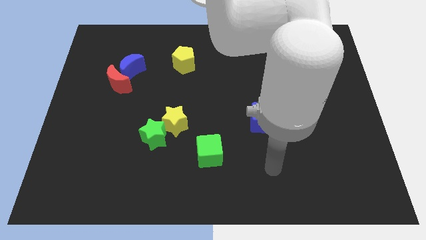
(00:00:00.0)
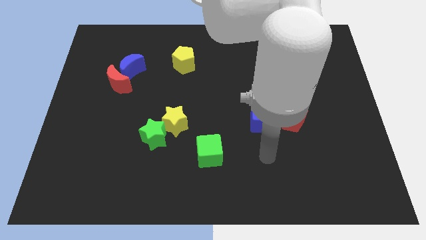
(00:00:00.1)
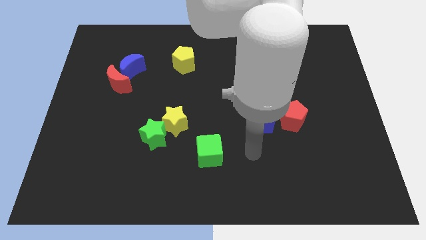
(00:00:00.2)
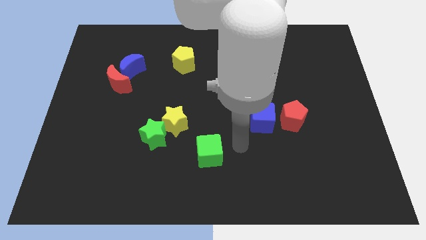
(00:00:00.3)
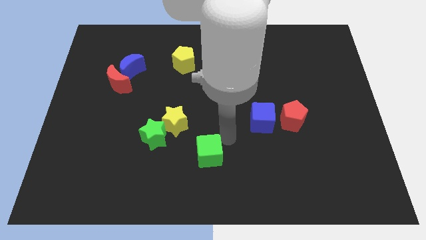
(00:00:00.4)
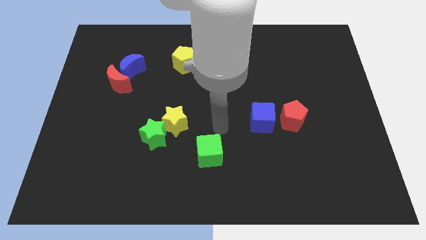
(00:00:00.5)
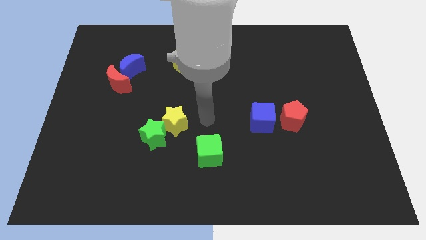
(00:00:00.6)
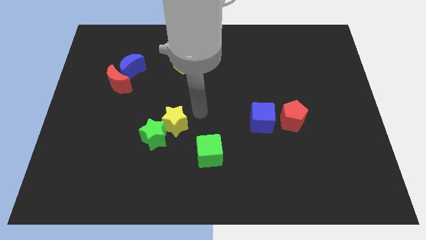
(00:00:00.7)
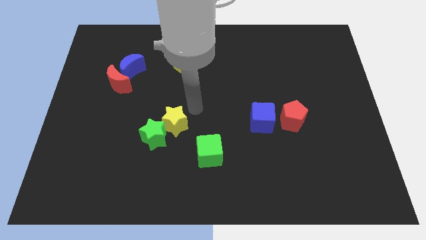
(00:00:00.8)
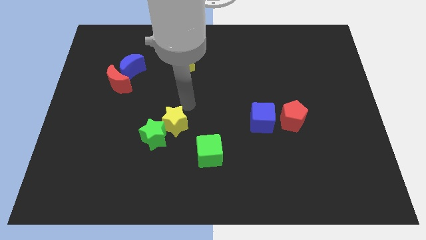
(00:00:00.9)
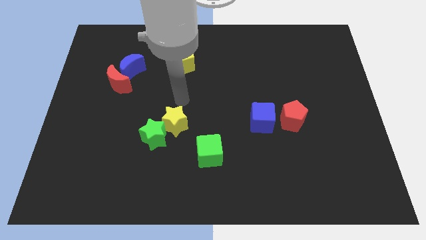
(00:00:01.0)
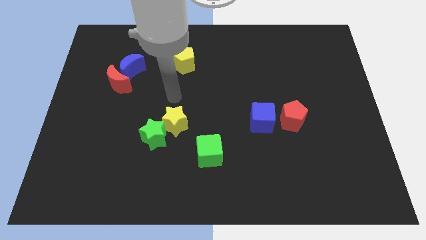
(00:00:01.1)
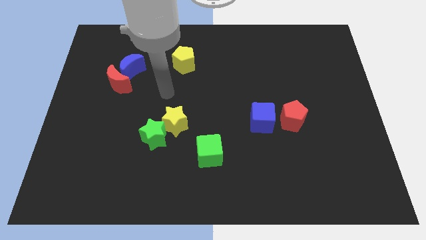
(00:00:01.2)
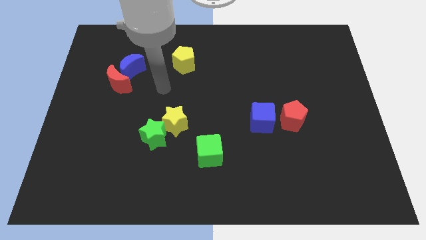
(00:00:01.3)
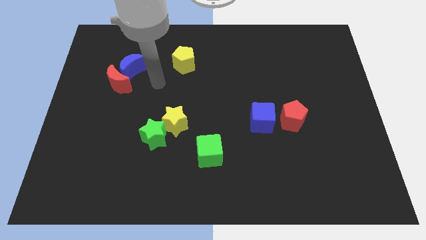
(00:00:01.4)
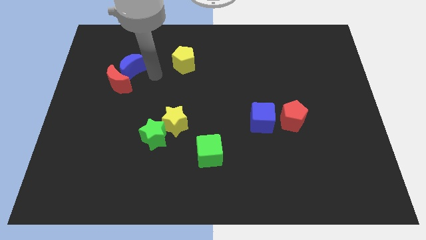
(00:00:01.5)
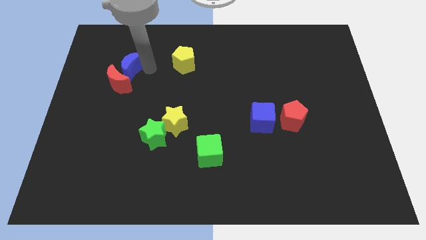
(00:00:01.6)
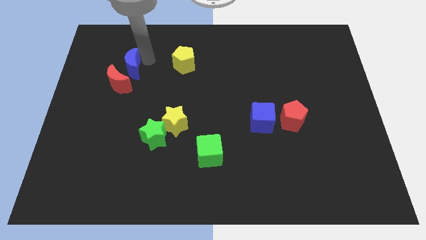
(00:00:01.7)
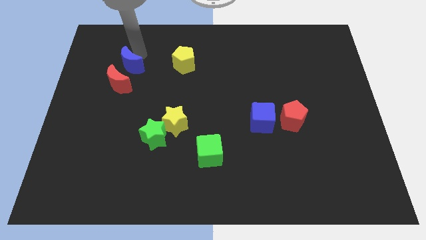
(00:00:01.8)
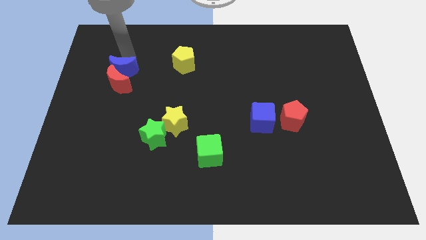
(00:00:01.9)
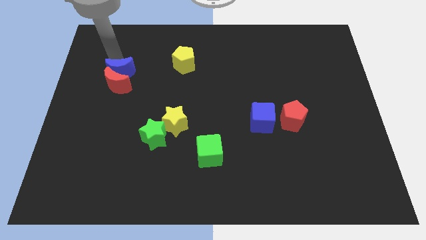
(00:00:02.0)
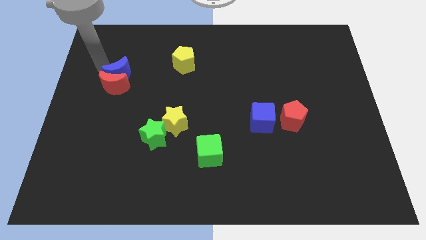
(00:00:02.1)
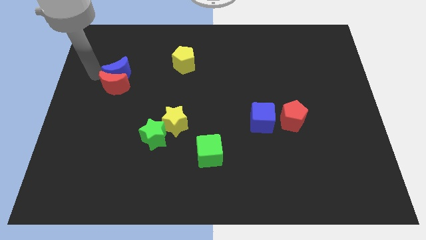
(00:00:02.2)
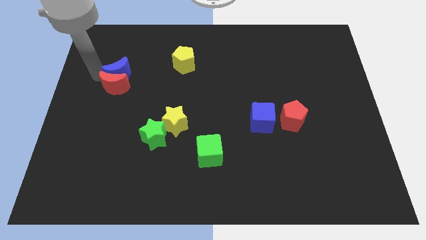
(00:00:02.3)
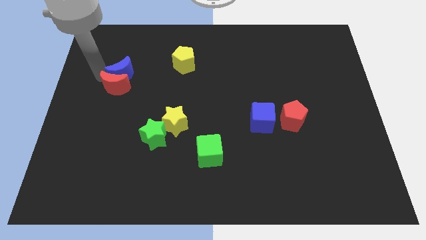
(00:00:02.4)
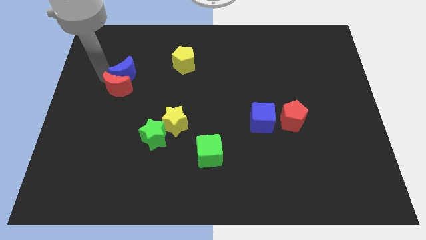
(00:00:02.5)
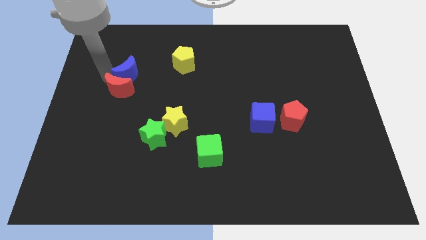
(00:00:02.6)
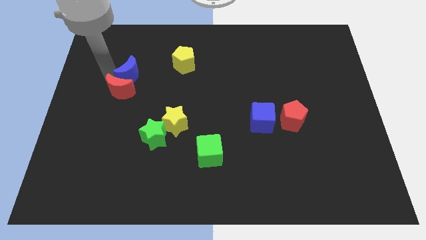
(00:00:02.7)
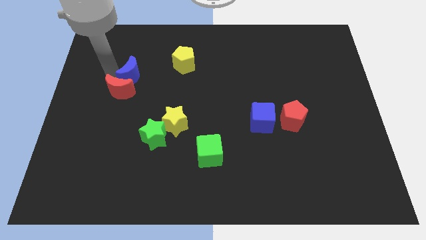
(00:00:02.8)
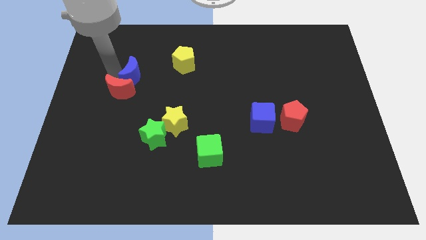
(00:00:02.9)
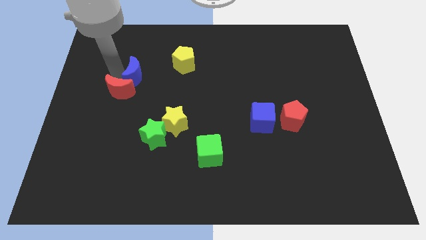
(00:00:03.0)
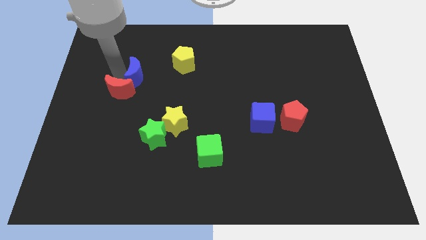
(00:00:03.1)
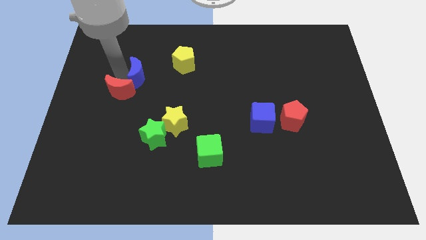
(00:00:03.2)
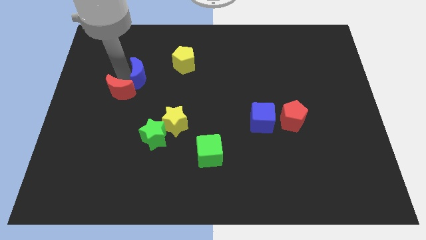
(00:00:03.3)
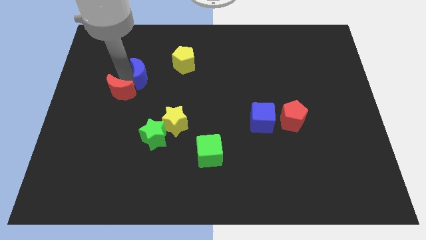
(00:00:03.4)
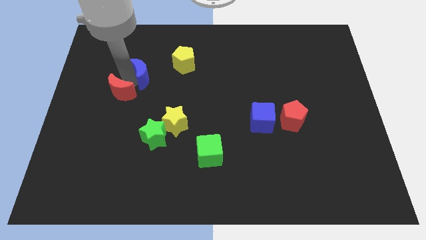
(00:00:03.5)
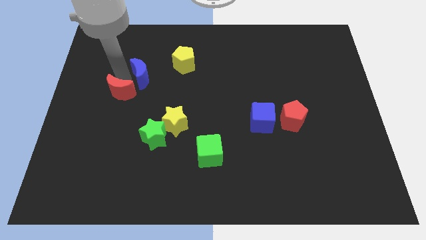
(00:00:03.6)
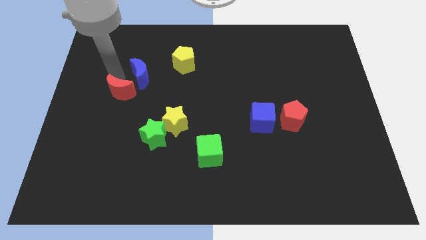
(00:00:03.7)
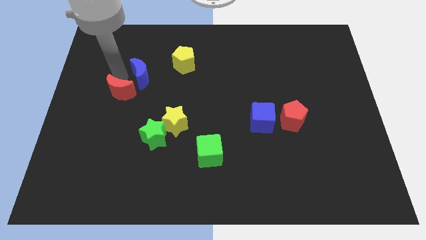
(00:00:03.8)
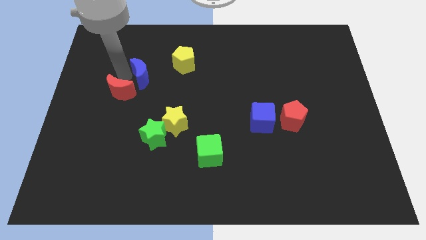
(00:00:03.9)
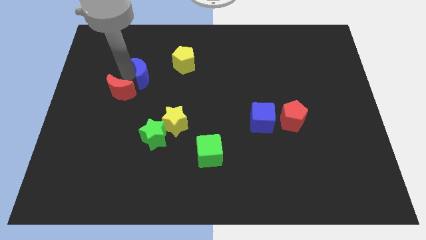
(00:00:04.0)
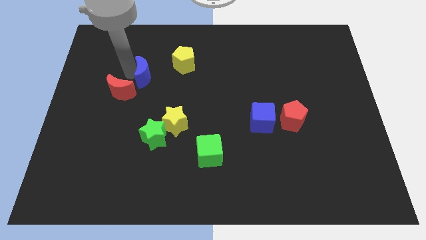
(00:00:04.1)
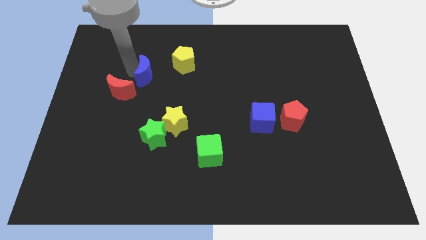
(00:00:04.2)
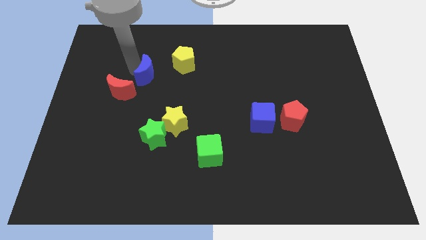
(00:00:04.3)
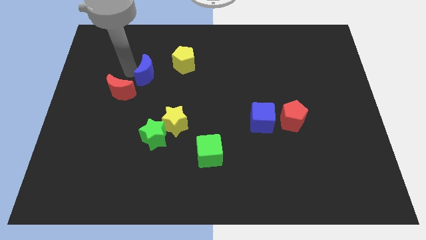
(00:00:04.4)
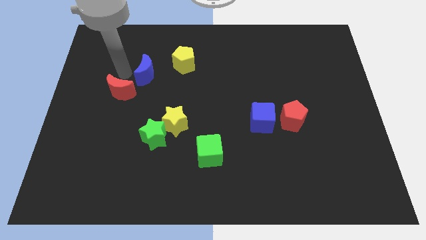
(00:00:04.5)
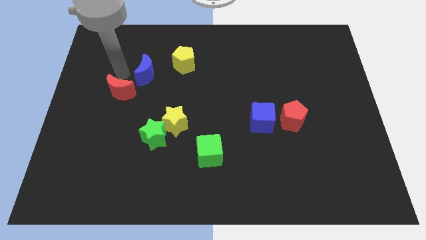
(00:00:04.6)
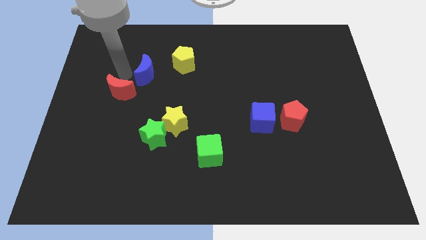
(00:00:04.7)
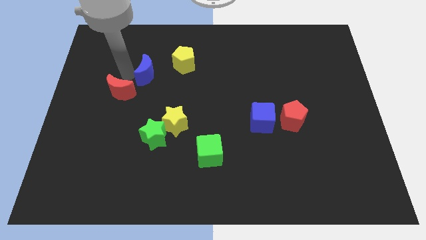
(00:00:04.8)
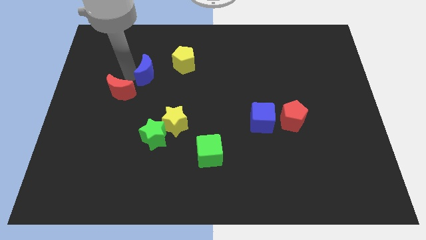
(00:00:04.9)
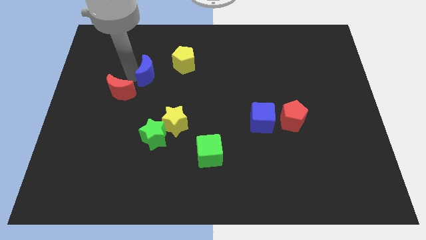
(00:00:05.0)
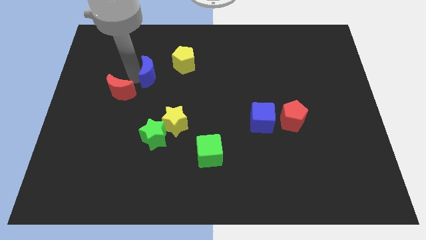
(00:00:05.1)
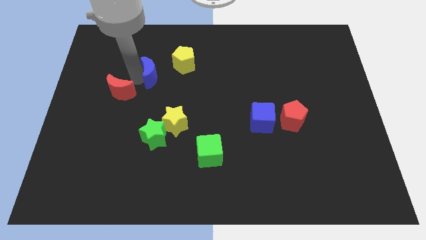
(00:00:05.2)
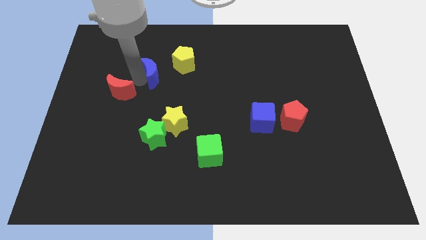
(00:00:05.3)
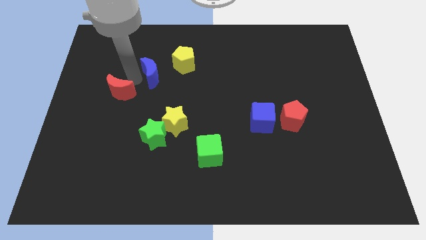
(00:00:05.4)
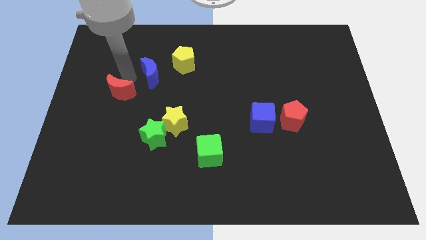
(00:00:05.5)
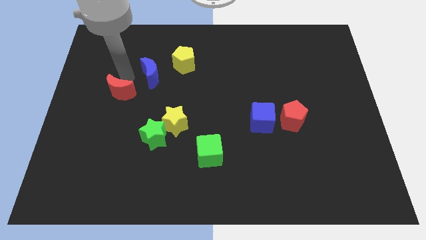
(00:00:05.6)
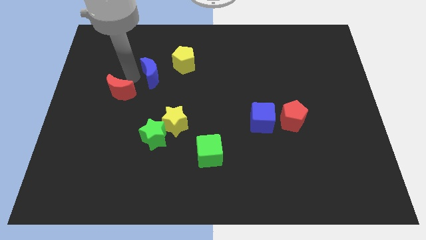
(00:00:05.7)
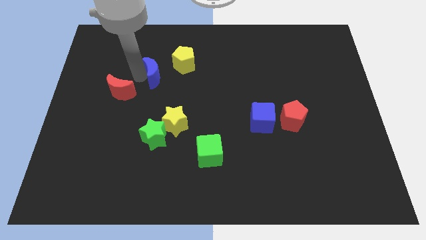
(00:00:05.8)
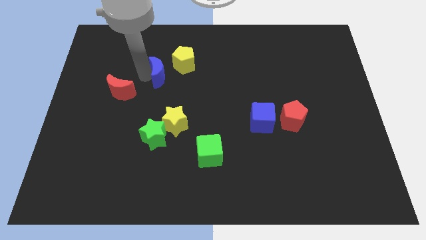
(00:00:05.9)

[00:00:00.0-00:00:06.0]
slightly push the blue moon to the right

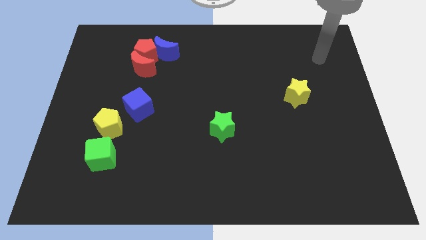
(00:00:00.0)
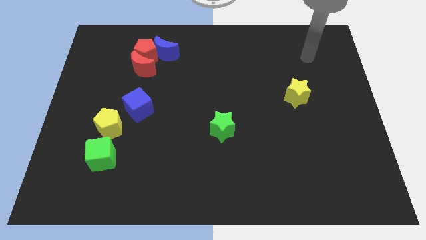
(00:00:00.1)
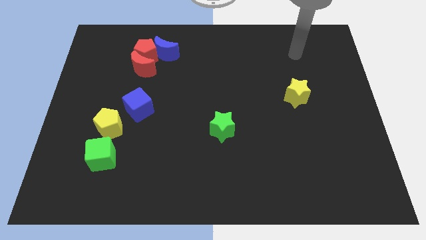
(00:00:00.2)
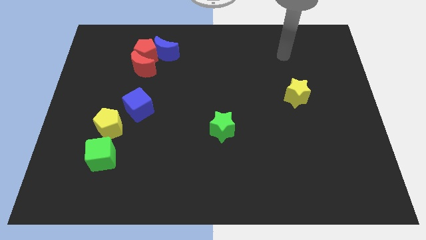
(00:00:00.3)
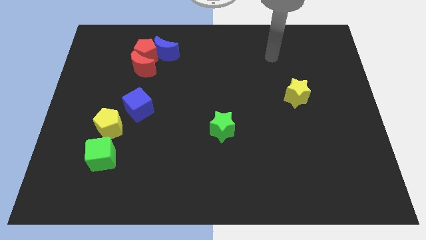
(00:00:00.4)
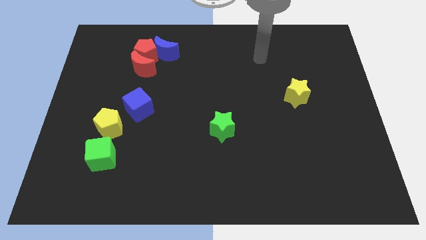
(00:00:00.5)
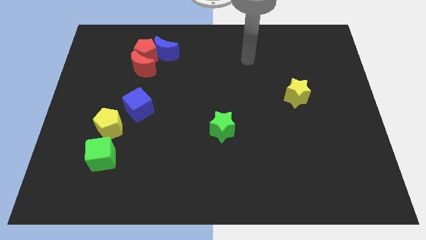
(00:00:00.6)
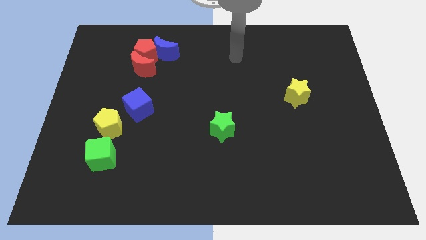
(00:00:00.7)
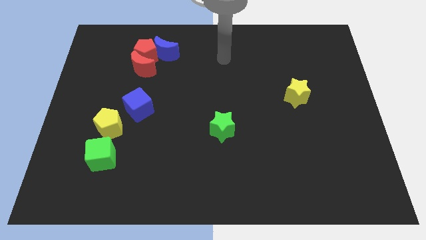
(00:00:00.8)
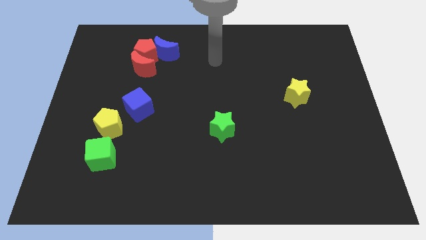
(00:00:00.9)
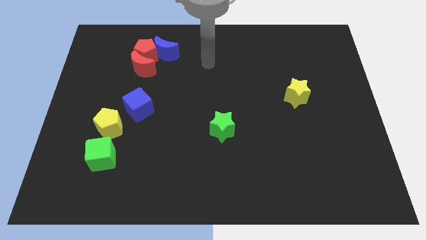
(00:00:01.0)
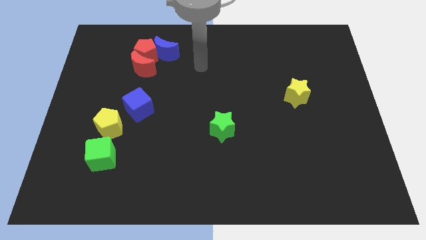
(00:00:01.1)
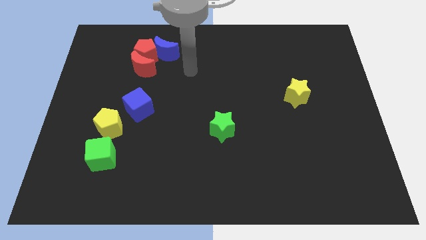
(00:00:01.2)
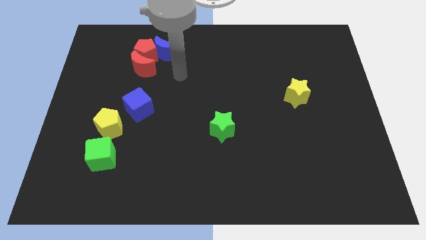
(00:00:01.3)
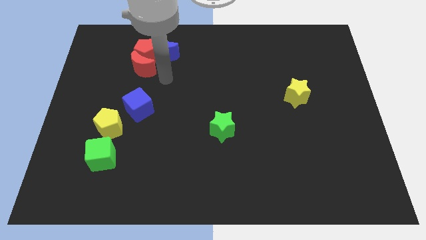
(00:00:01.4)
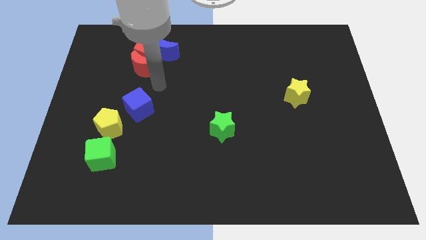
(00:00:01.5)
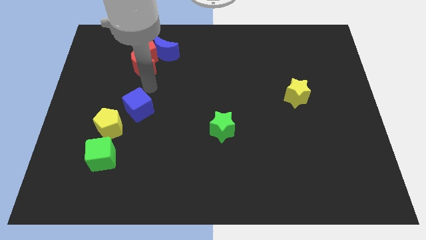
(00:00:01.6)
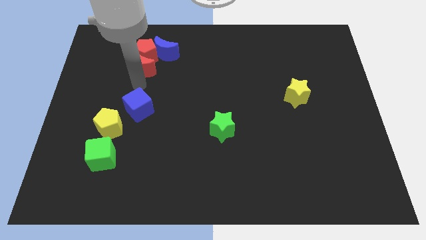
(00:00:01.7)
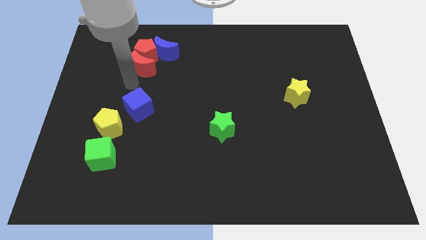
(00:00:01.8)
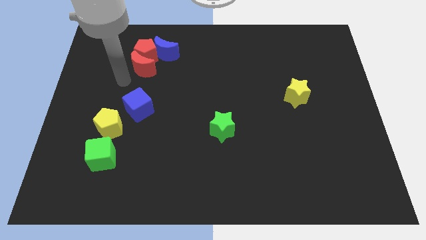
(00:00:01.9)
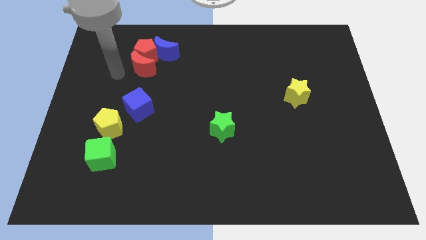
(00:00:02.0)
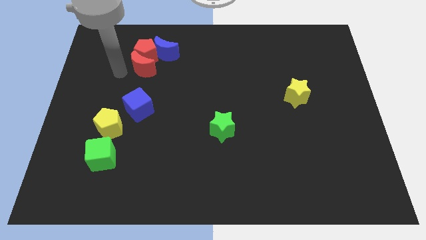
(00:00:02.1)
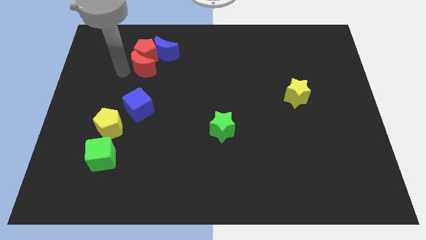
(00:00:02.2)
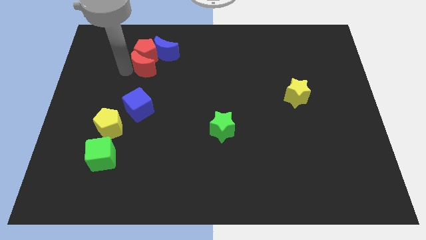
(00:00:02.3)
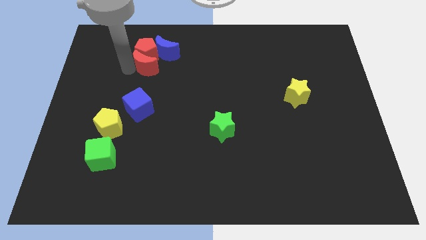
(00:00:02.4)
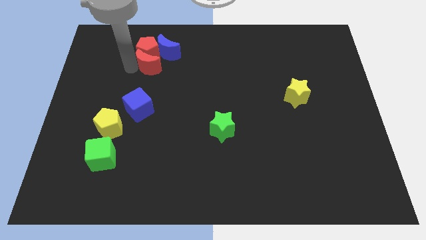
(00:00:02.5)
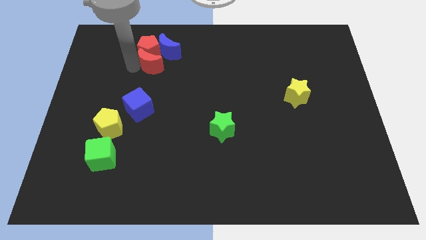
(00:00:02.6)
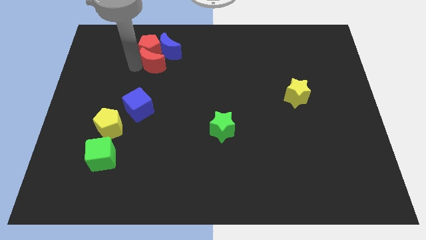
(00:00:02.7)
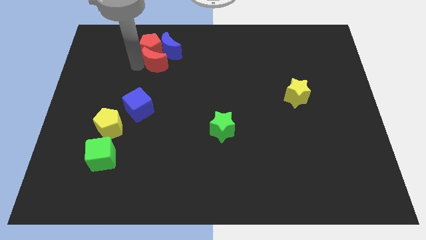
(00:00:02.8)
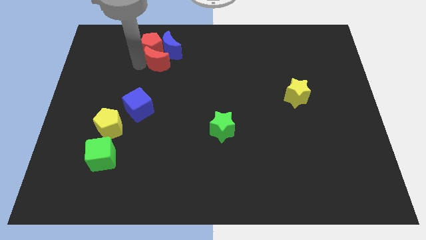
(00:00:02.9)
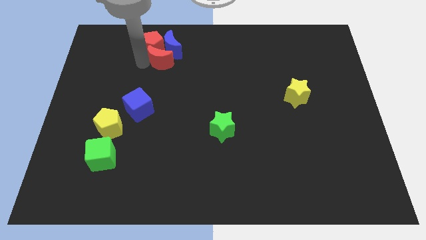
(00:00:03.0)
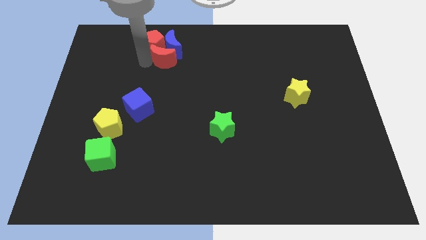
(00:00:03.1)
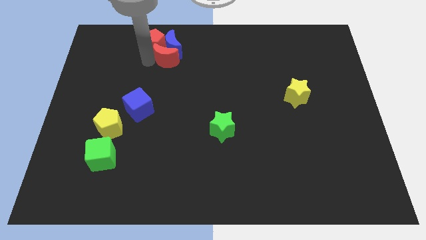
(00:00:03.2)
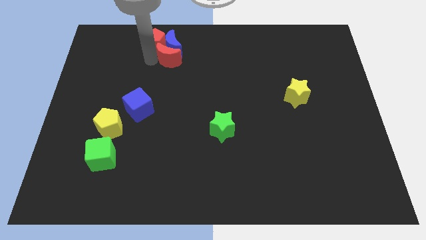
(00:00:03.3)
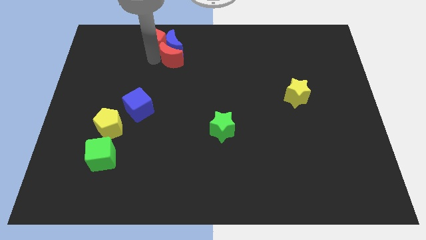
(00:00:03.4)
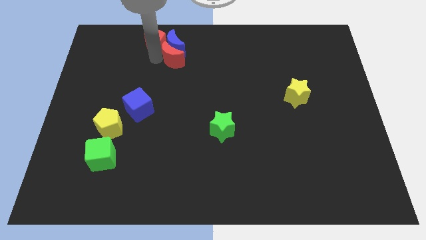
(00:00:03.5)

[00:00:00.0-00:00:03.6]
move the red moon a little right
